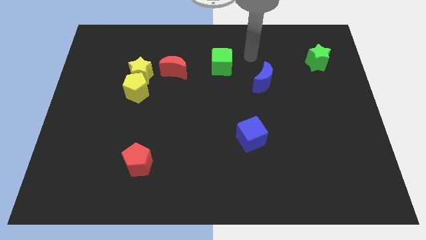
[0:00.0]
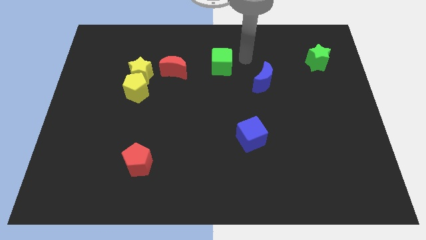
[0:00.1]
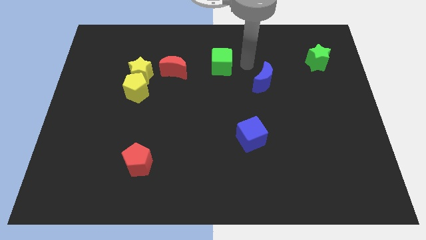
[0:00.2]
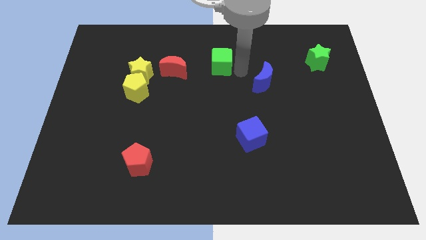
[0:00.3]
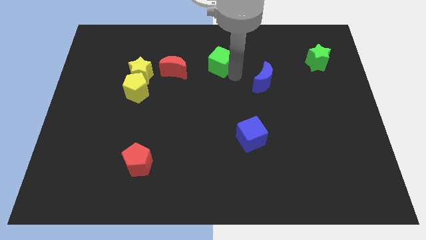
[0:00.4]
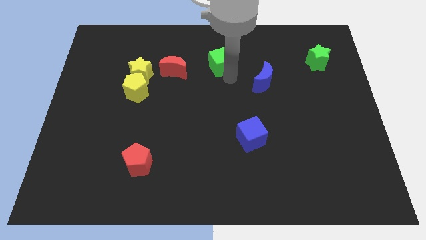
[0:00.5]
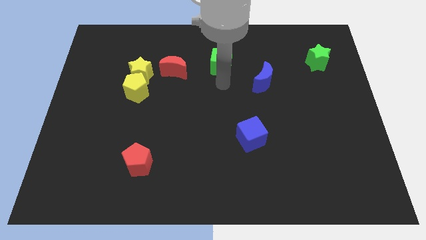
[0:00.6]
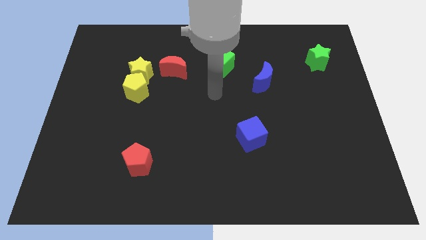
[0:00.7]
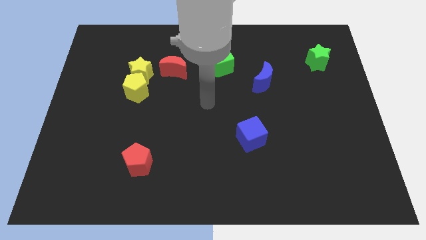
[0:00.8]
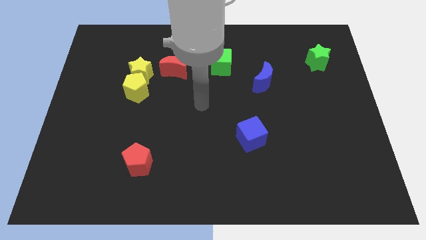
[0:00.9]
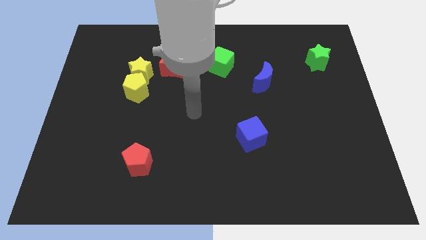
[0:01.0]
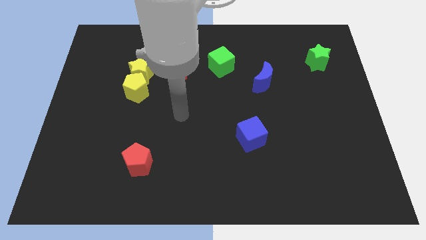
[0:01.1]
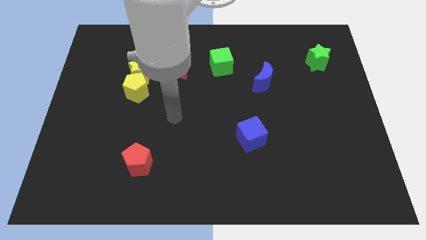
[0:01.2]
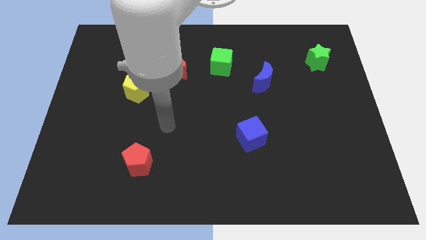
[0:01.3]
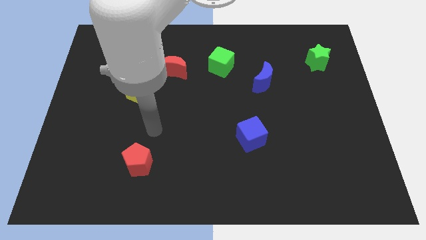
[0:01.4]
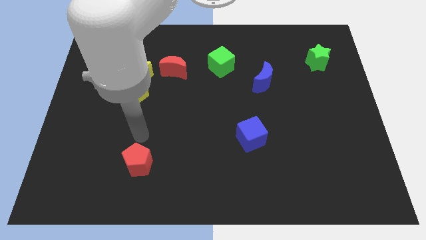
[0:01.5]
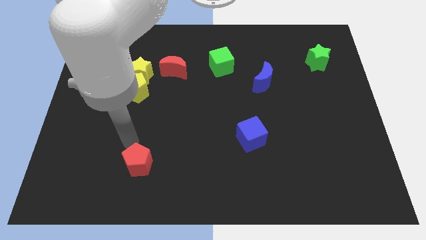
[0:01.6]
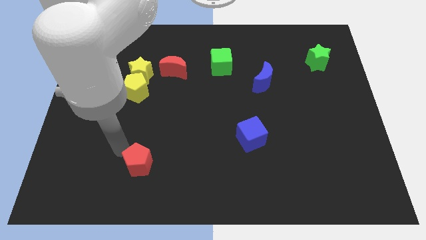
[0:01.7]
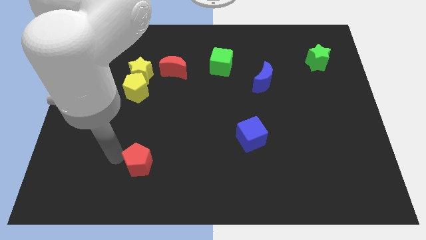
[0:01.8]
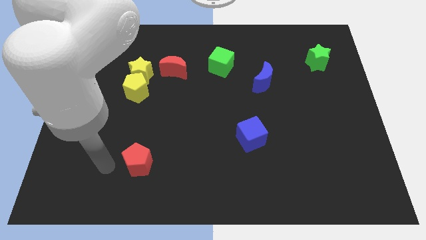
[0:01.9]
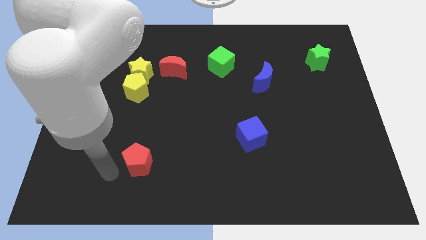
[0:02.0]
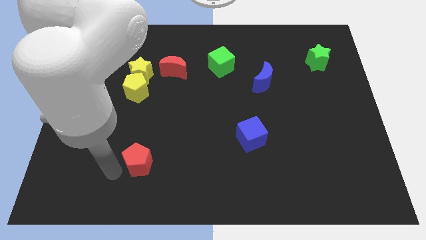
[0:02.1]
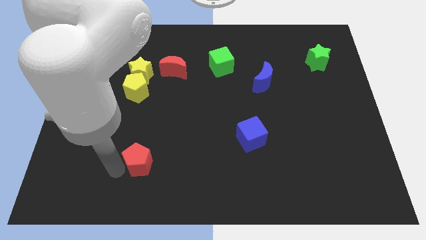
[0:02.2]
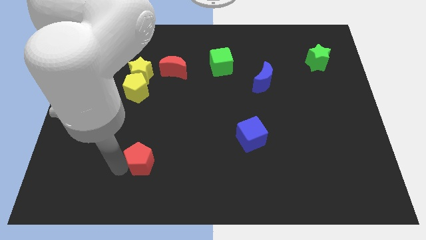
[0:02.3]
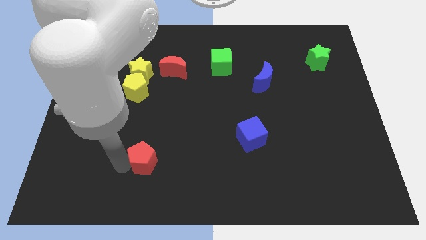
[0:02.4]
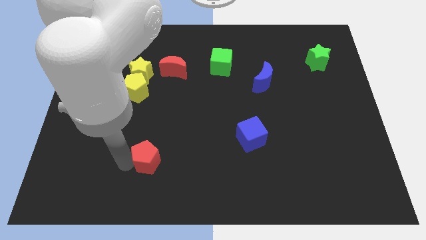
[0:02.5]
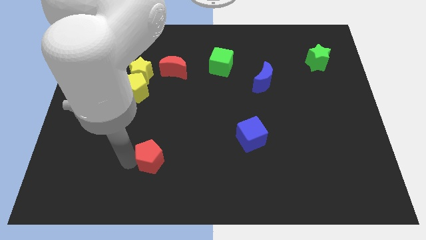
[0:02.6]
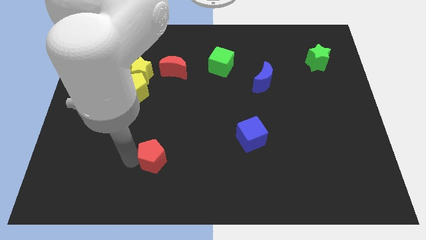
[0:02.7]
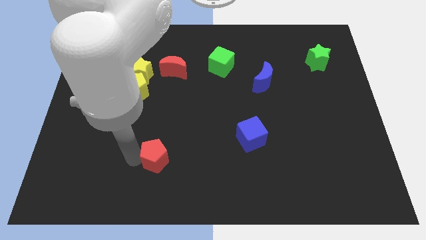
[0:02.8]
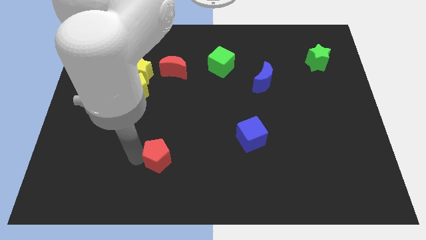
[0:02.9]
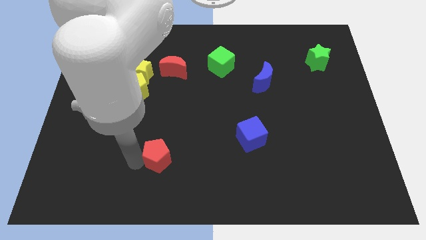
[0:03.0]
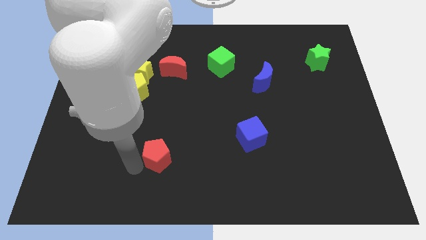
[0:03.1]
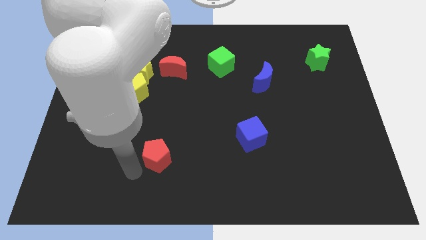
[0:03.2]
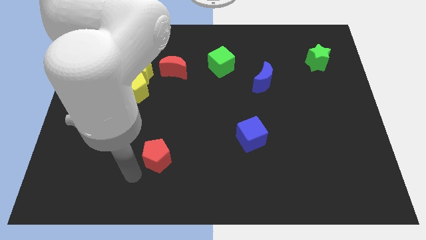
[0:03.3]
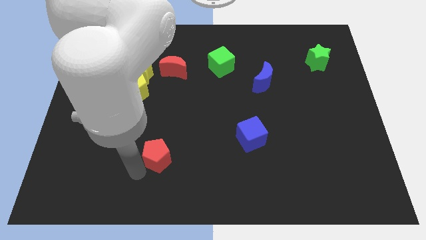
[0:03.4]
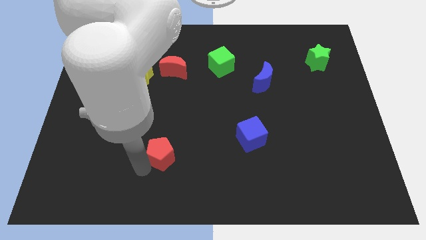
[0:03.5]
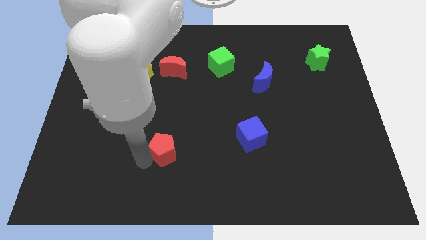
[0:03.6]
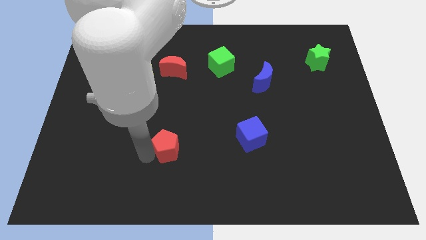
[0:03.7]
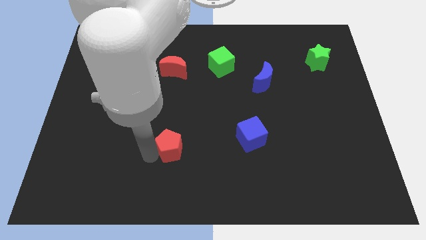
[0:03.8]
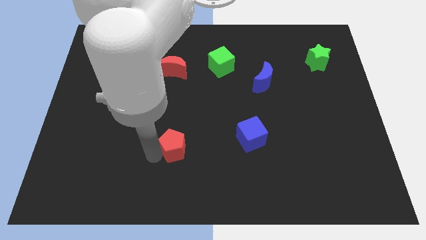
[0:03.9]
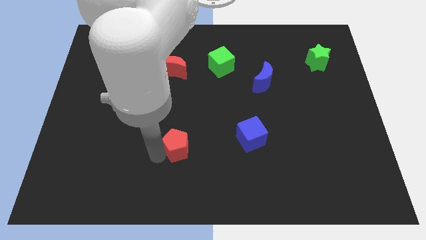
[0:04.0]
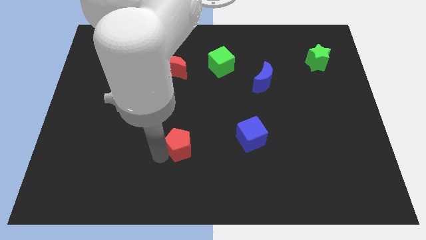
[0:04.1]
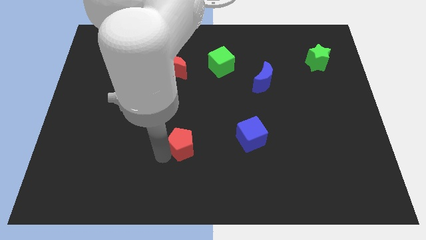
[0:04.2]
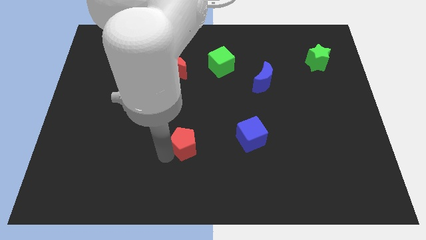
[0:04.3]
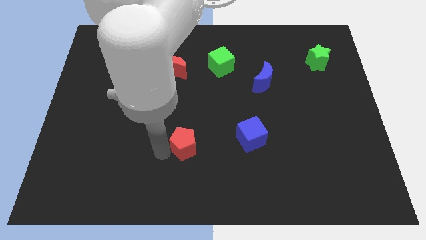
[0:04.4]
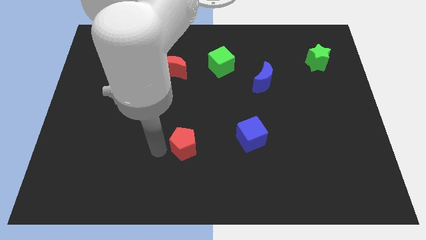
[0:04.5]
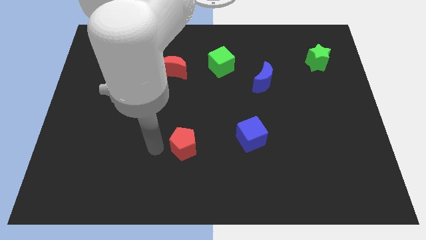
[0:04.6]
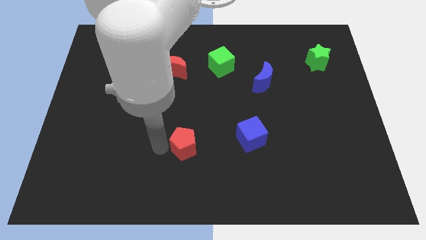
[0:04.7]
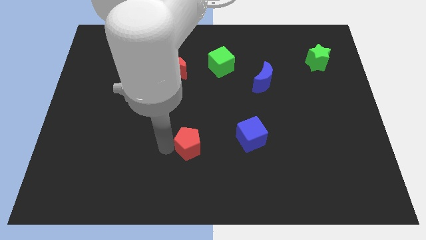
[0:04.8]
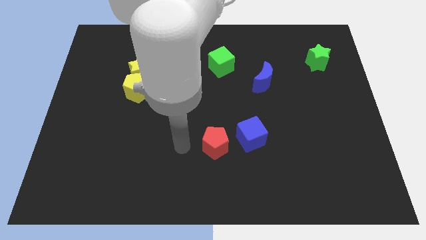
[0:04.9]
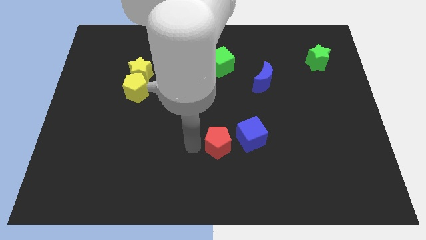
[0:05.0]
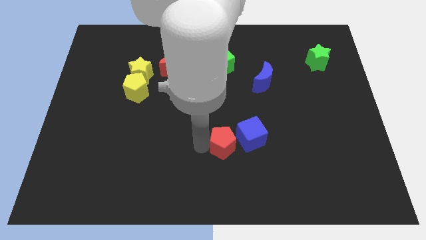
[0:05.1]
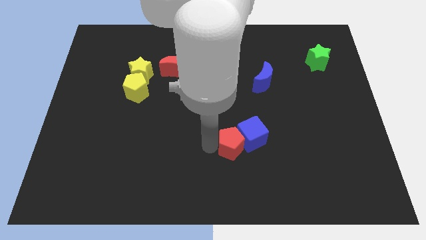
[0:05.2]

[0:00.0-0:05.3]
slide the red pentagon close to the blue cube

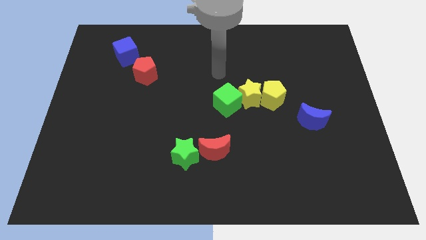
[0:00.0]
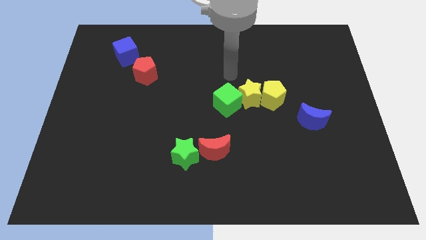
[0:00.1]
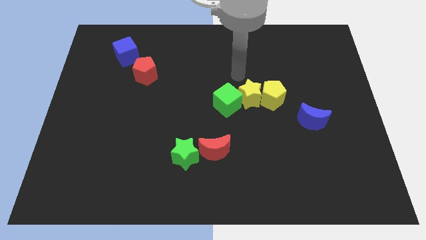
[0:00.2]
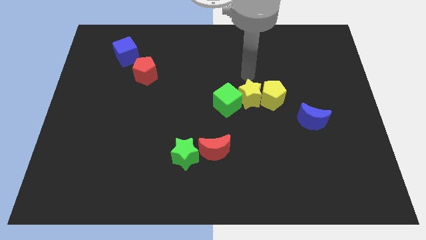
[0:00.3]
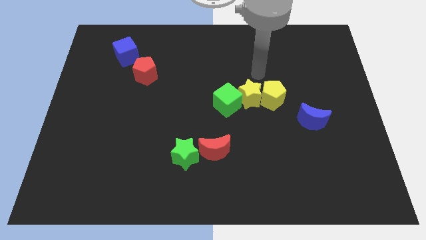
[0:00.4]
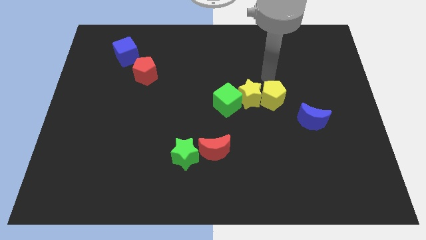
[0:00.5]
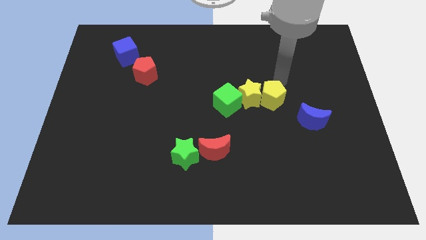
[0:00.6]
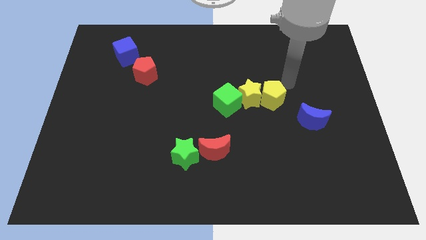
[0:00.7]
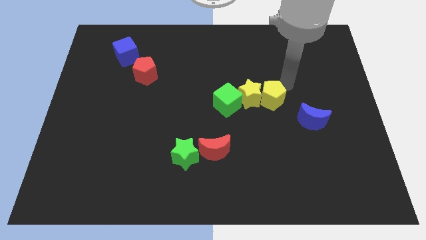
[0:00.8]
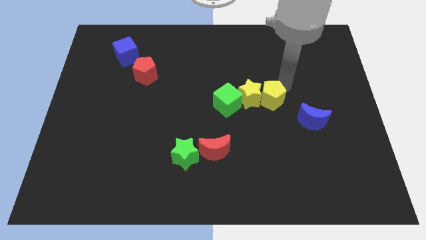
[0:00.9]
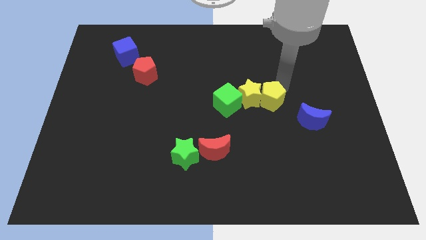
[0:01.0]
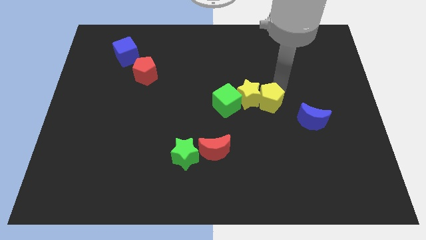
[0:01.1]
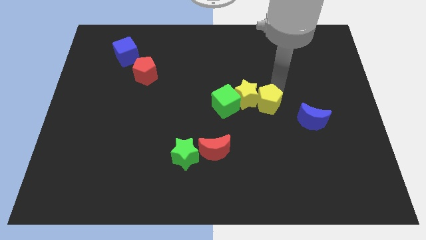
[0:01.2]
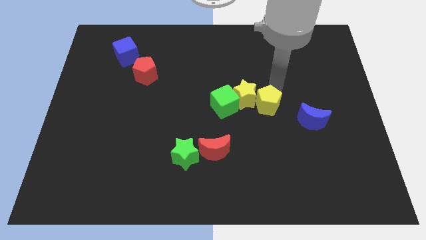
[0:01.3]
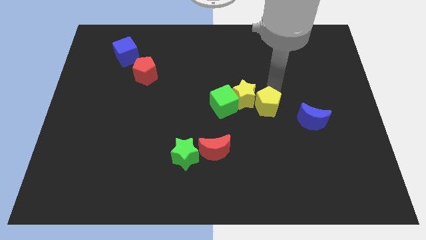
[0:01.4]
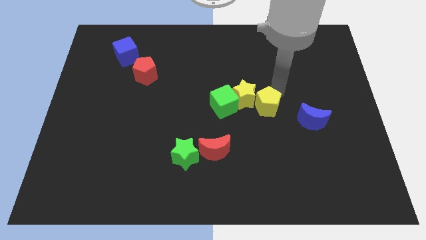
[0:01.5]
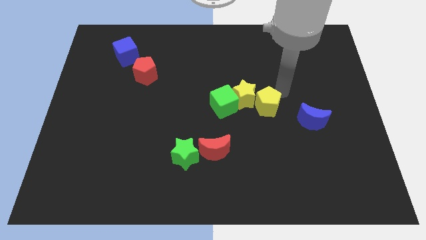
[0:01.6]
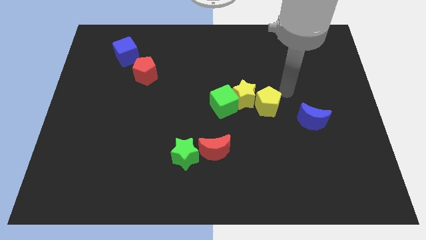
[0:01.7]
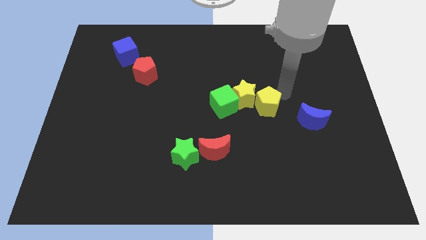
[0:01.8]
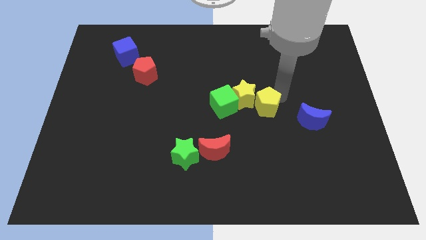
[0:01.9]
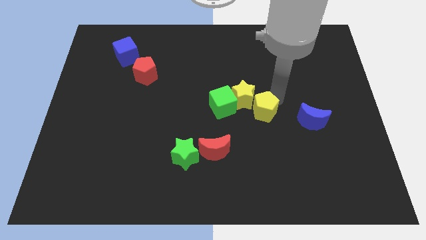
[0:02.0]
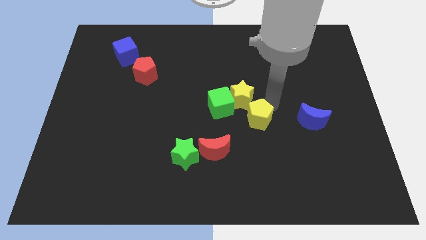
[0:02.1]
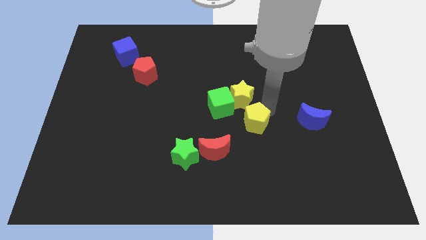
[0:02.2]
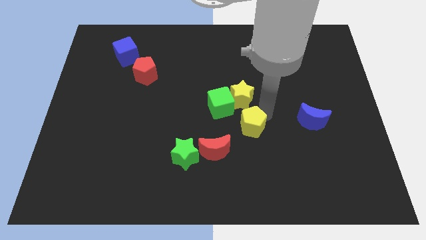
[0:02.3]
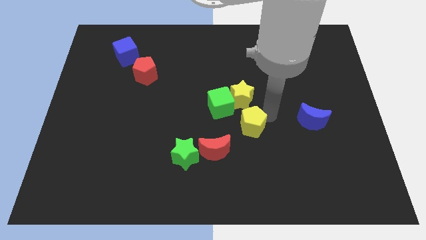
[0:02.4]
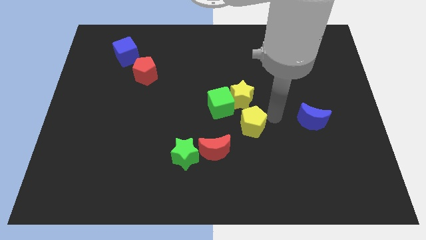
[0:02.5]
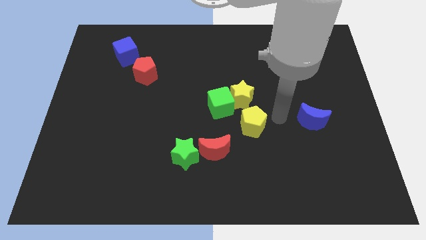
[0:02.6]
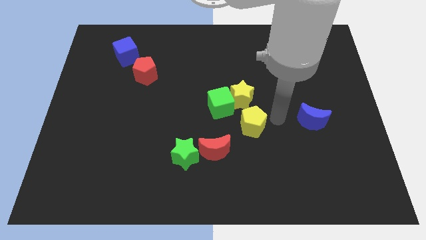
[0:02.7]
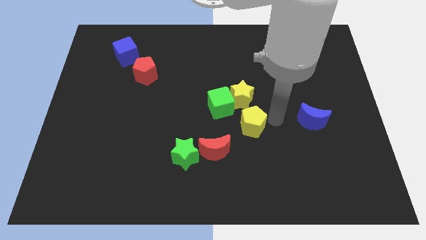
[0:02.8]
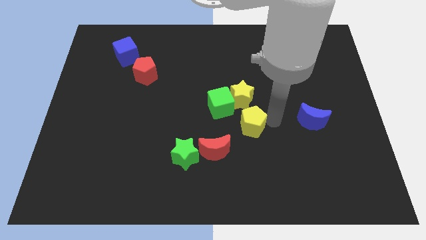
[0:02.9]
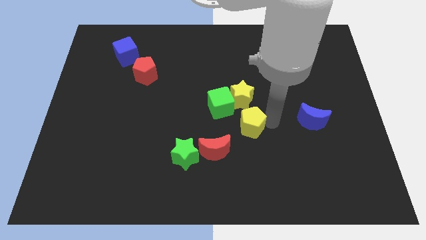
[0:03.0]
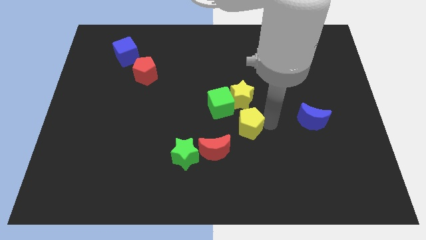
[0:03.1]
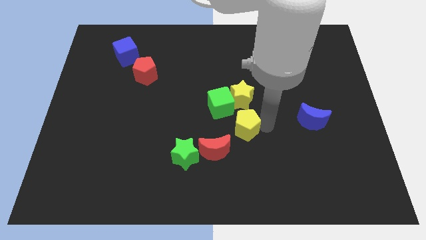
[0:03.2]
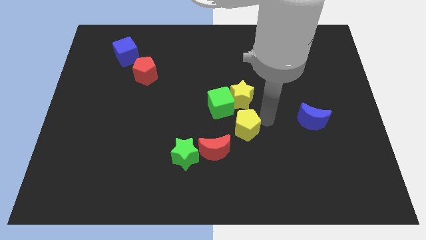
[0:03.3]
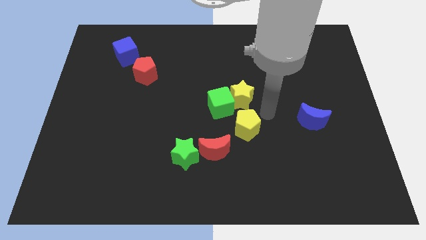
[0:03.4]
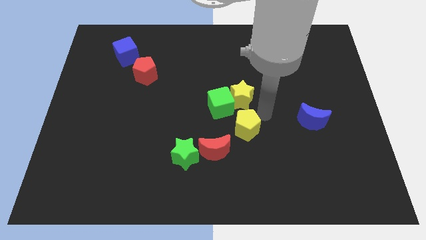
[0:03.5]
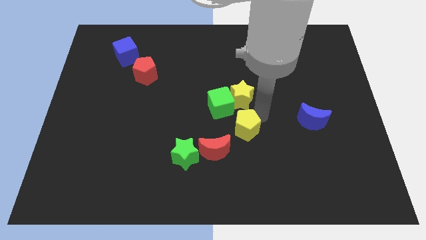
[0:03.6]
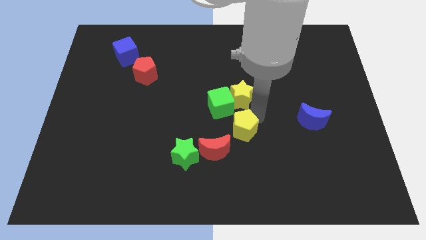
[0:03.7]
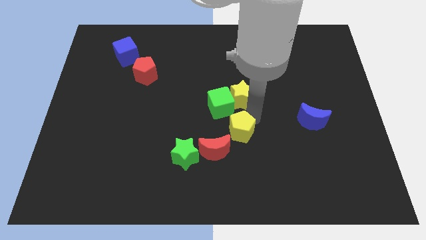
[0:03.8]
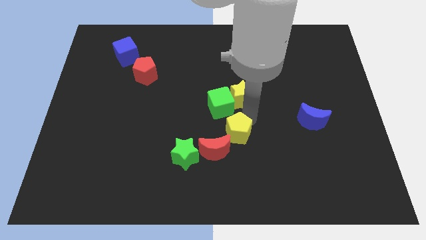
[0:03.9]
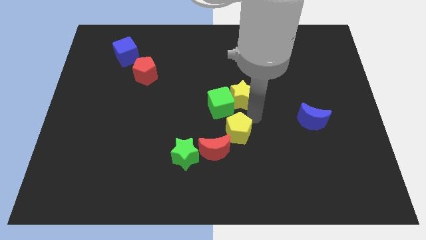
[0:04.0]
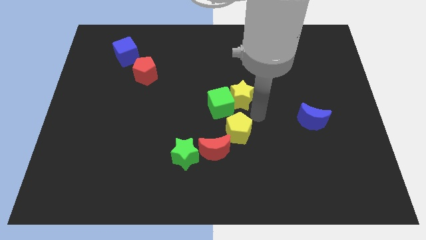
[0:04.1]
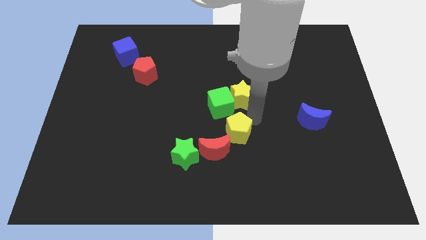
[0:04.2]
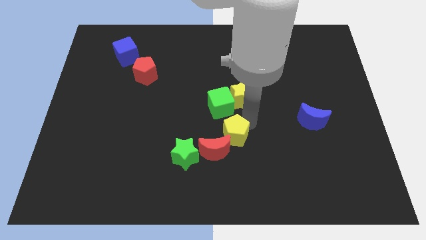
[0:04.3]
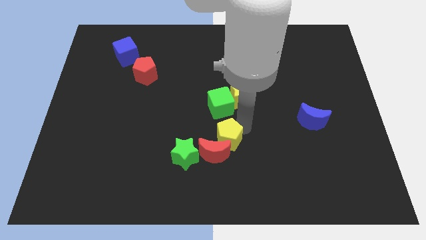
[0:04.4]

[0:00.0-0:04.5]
move the yellow pentagon close to the red moon
